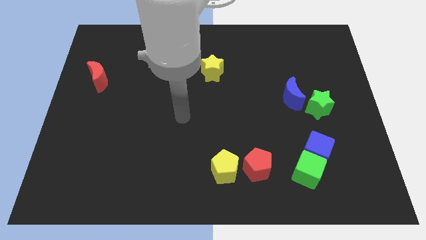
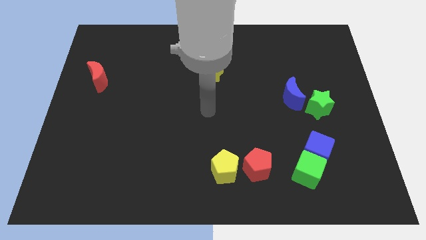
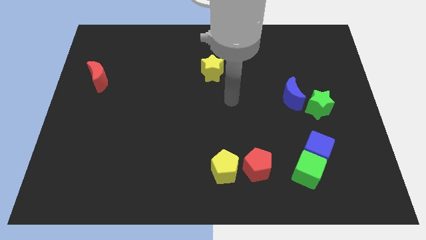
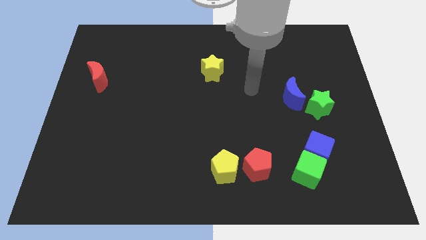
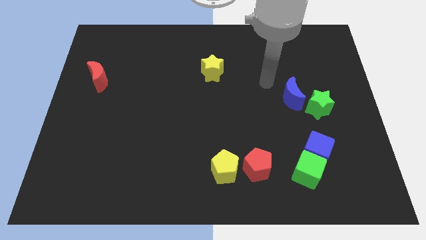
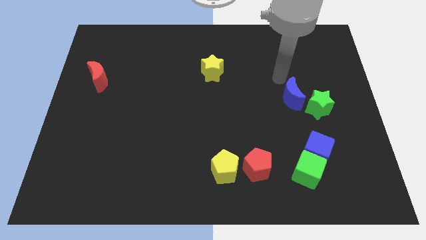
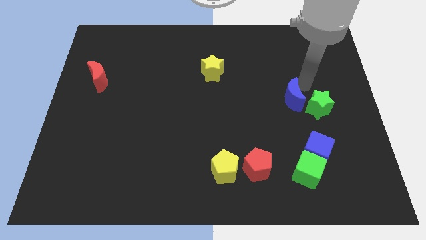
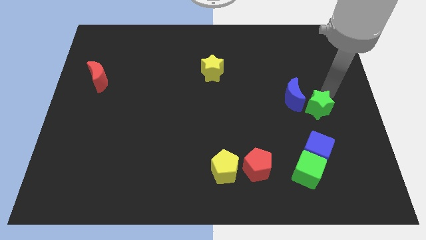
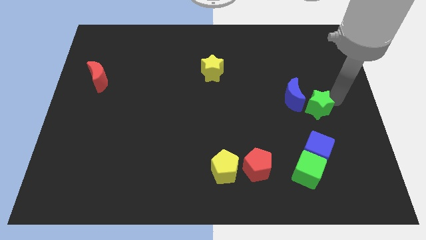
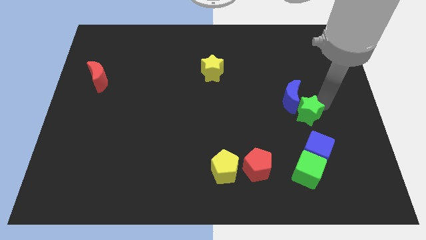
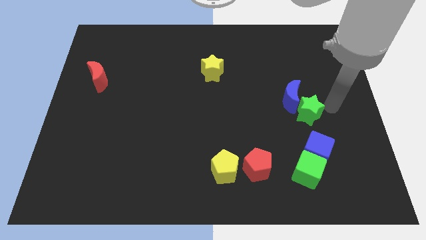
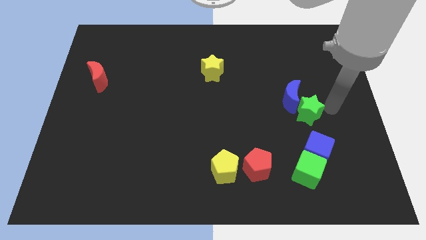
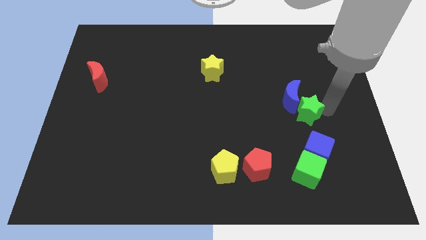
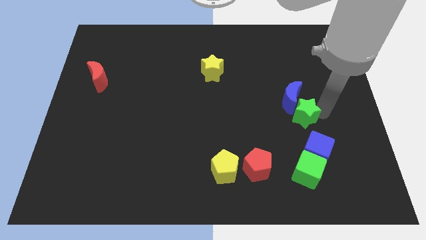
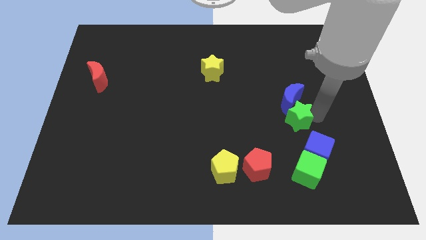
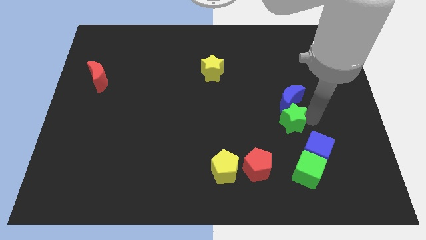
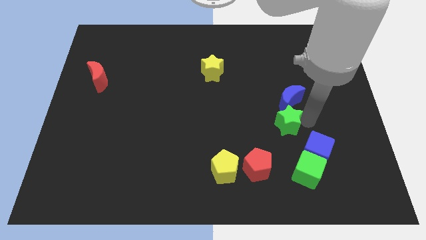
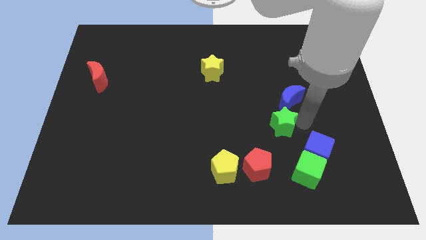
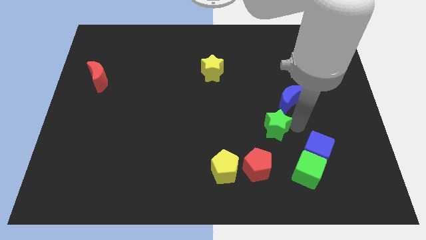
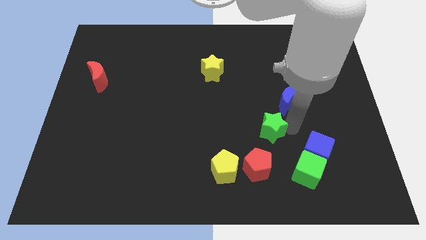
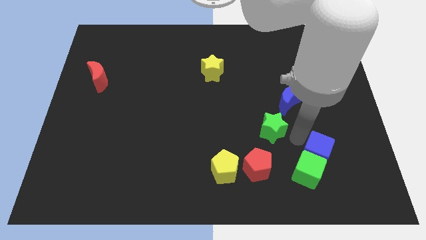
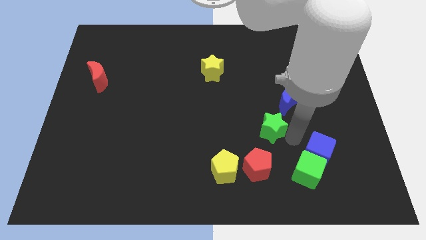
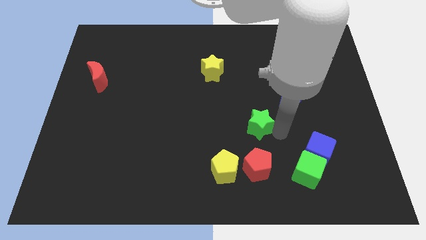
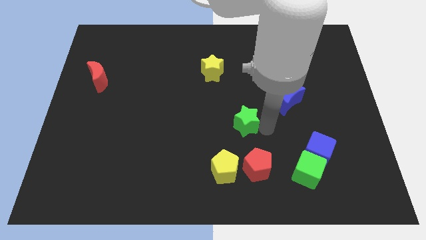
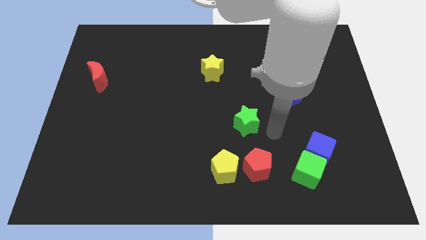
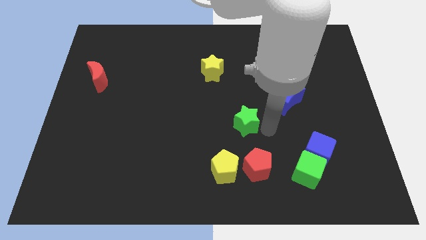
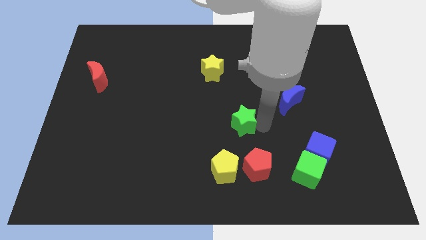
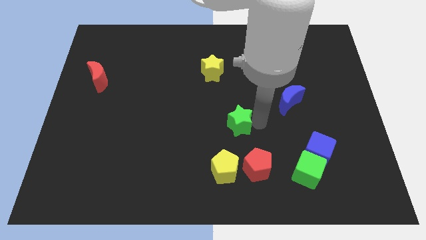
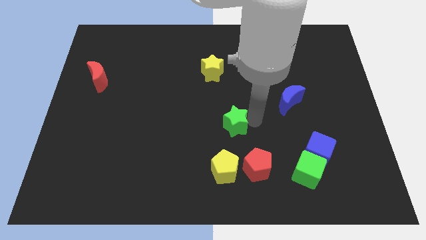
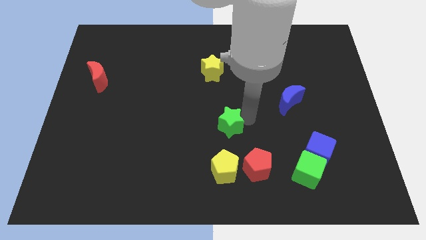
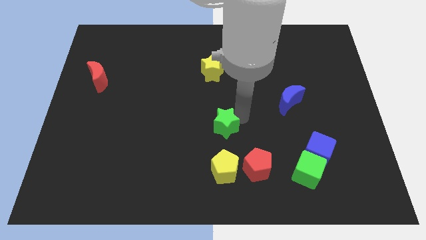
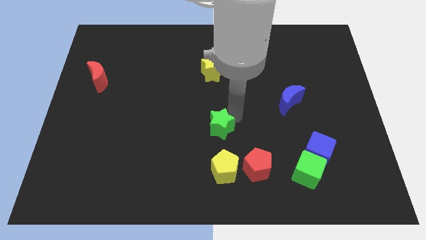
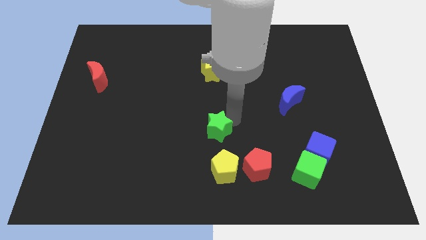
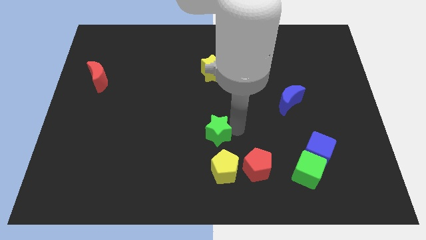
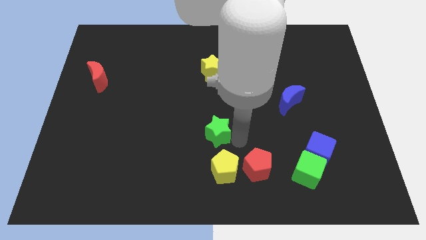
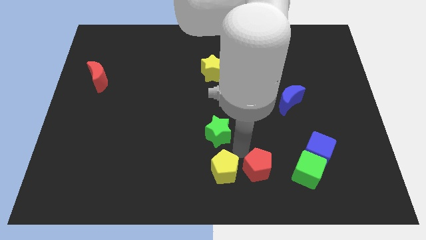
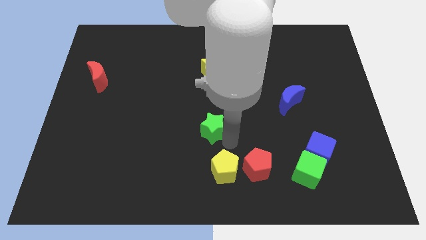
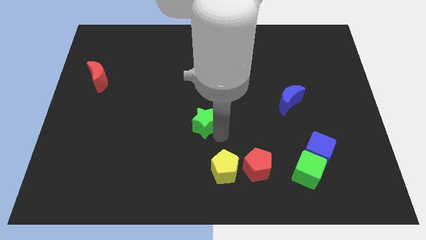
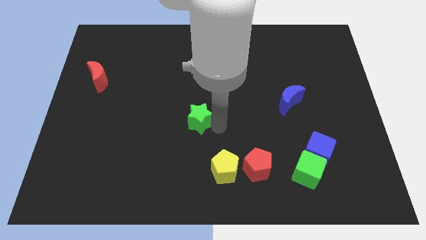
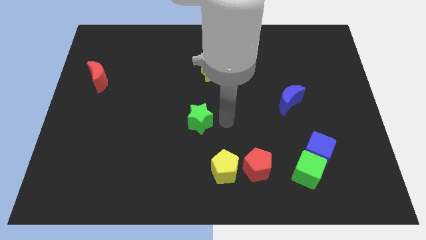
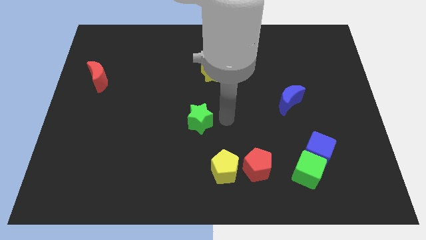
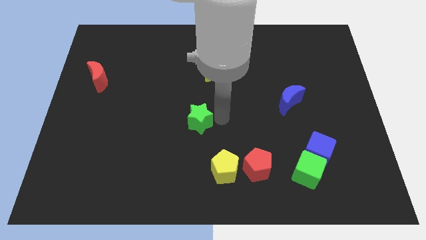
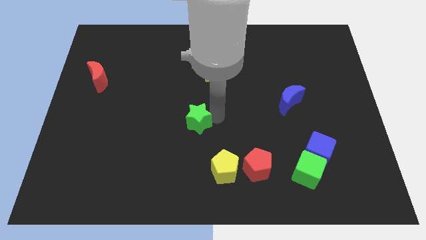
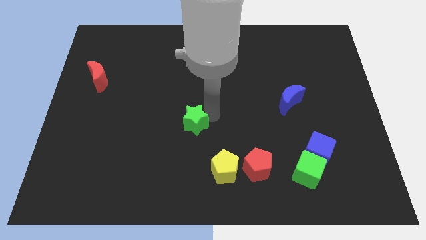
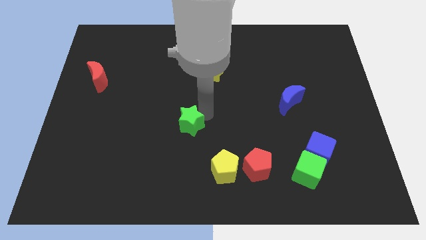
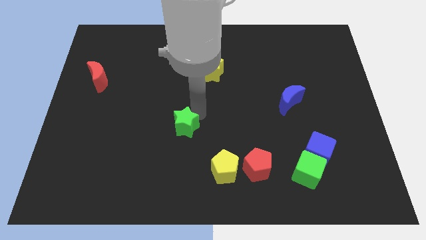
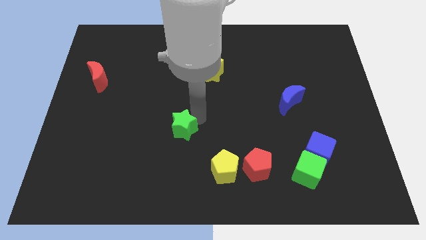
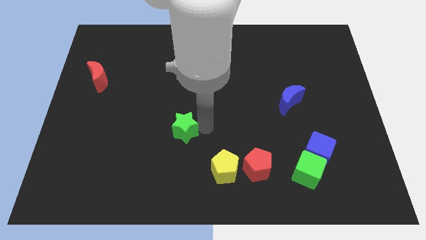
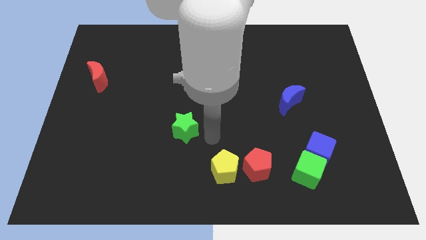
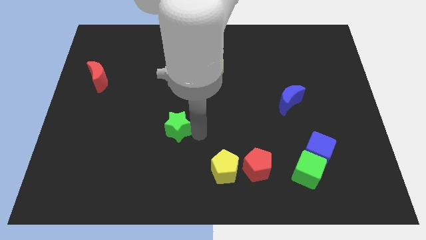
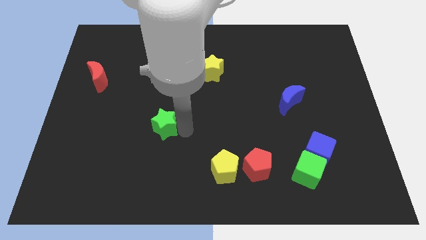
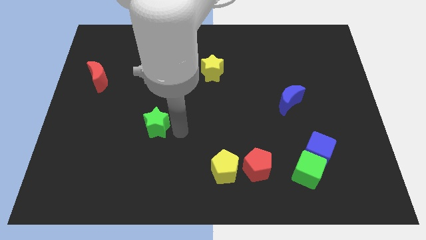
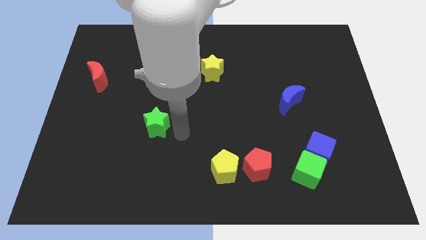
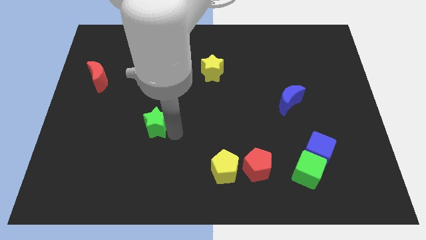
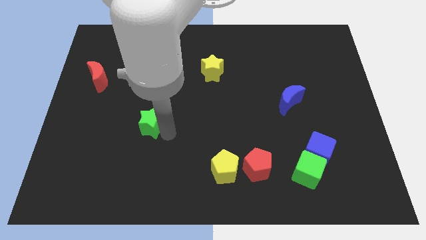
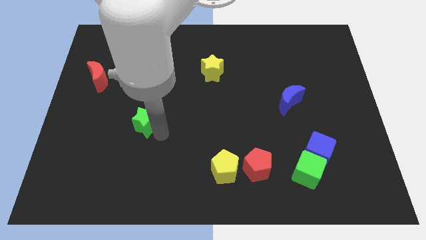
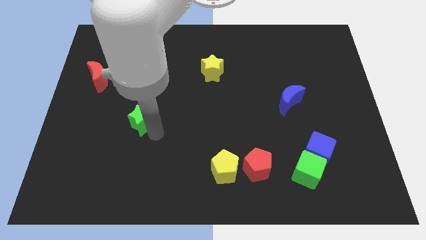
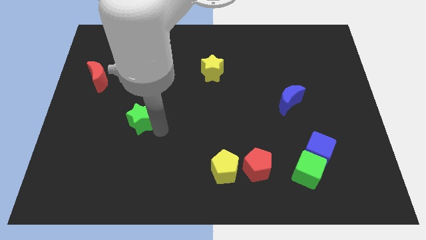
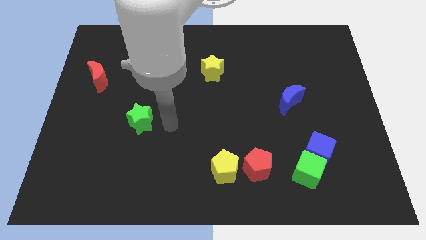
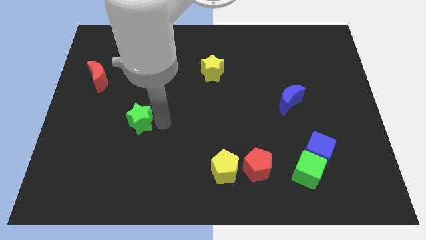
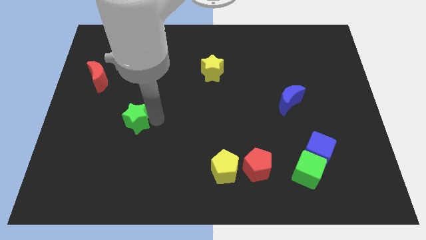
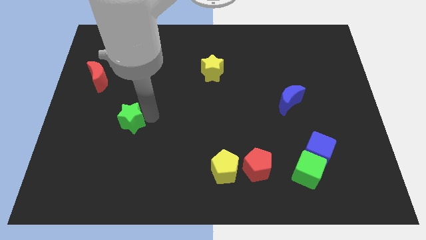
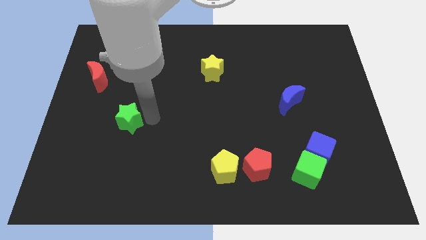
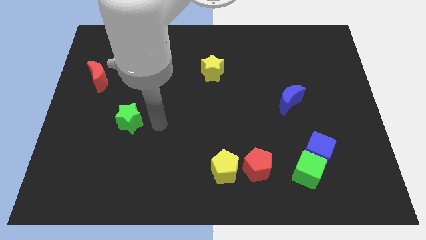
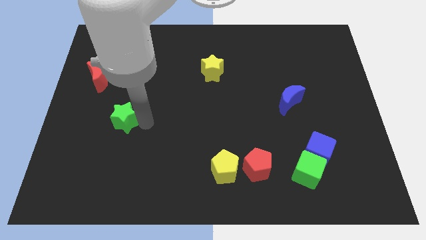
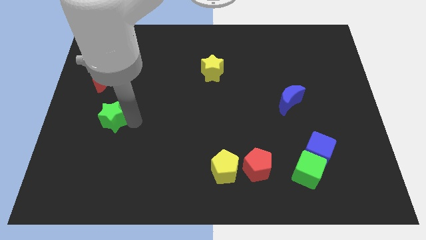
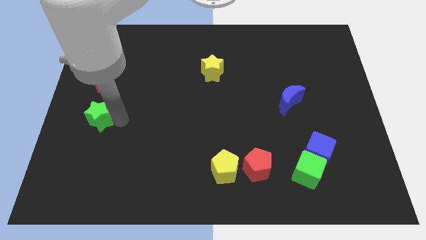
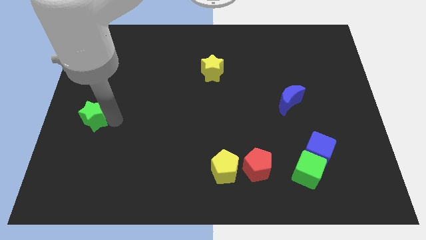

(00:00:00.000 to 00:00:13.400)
put the green star to the left side

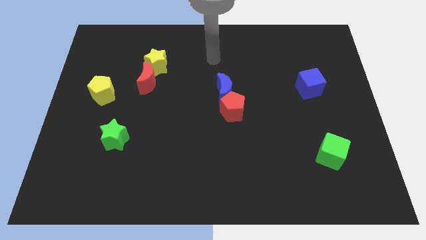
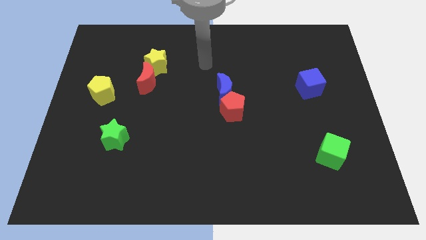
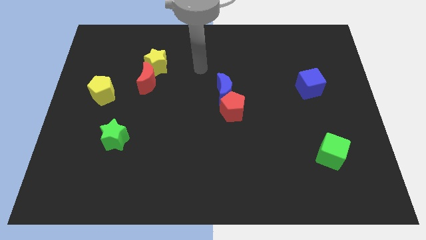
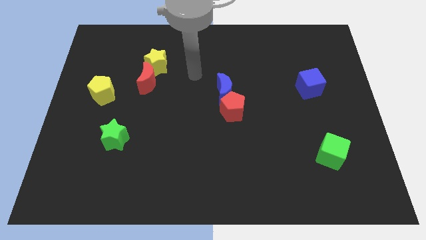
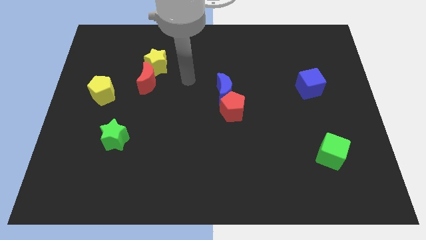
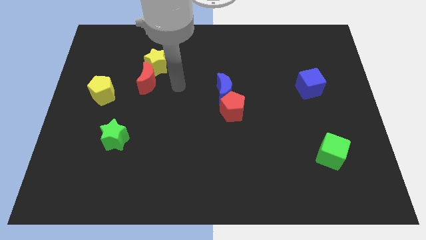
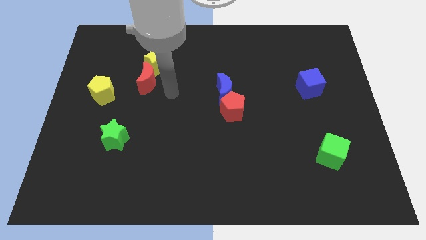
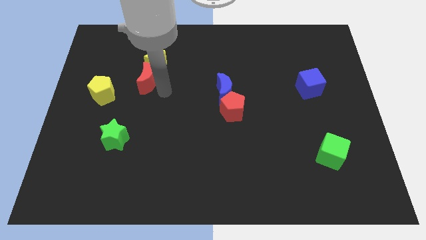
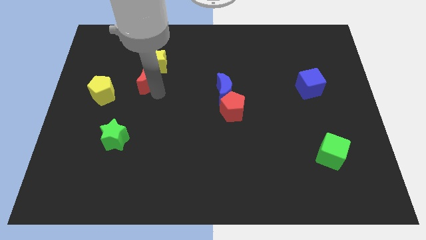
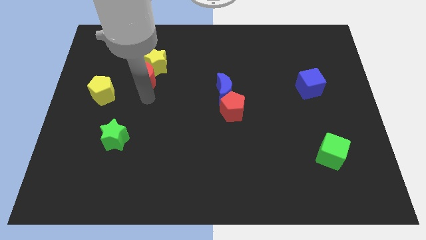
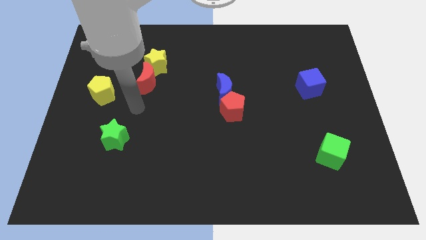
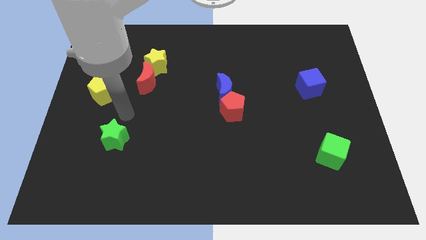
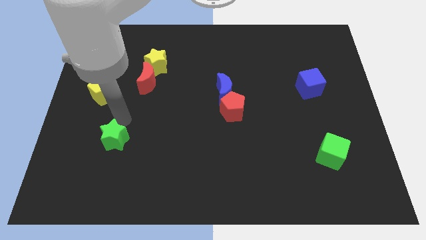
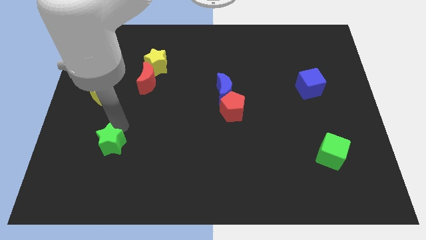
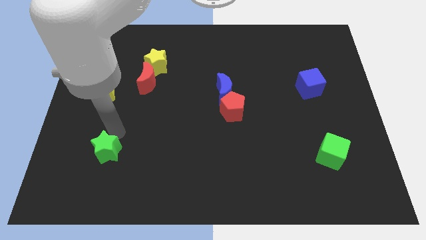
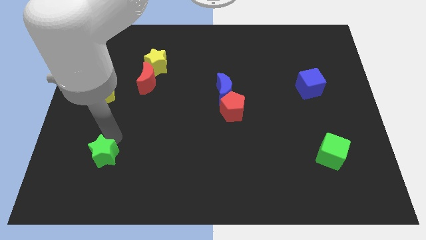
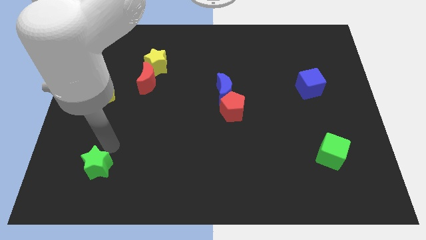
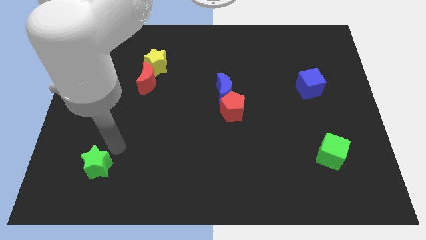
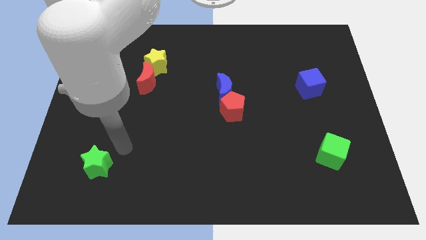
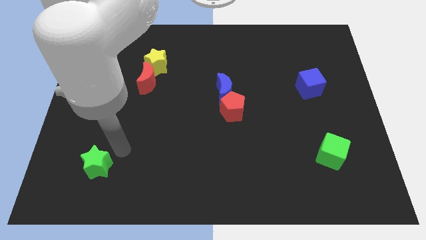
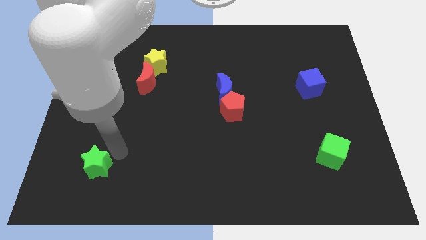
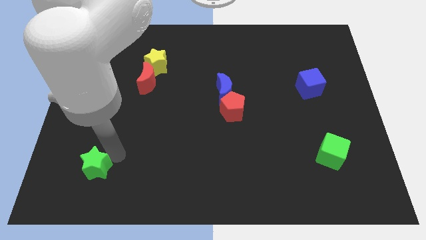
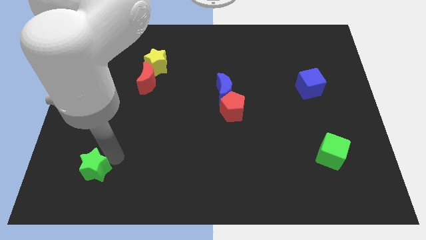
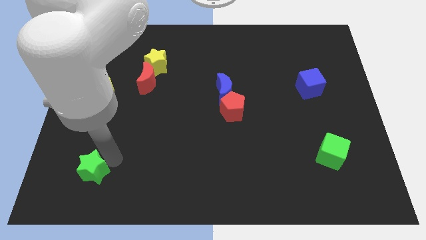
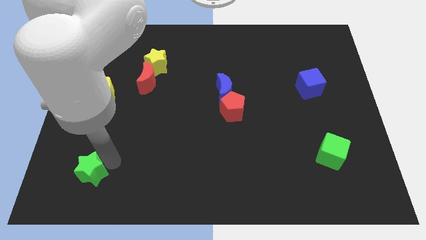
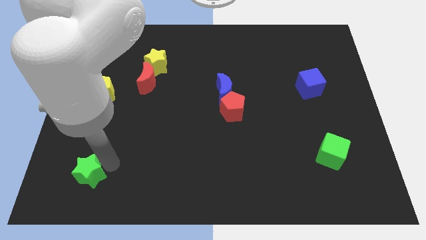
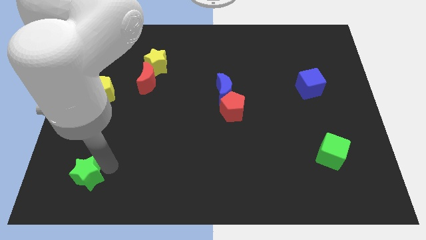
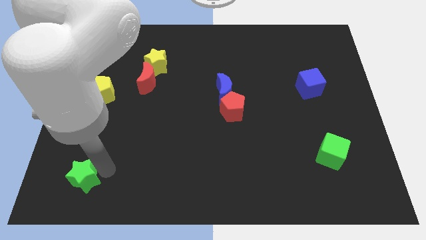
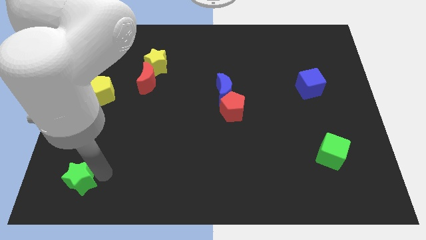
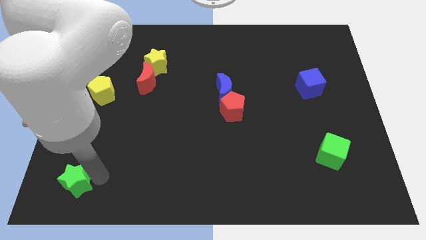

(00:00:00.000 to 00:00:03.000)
put the green star to the lower left corner
